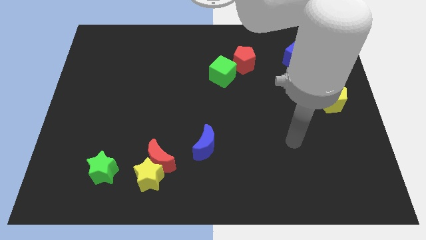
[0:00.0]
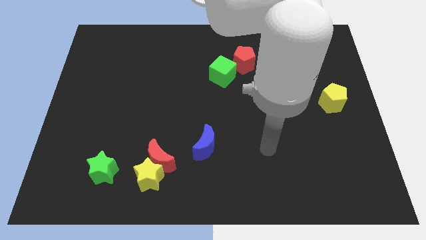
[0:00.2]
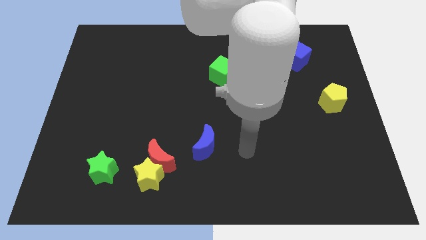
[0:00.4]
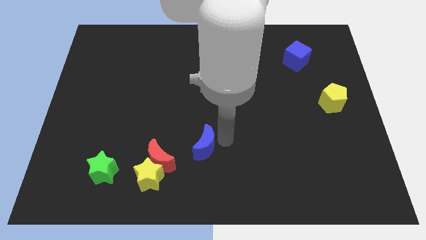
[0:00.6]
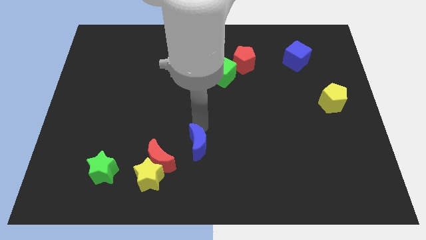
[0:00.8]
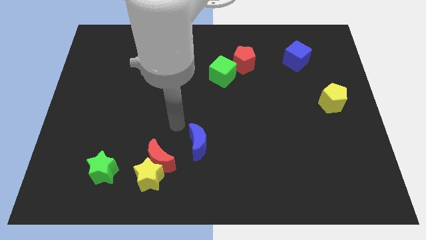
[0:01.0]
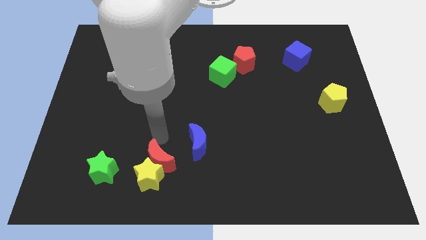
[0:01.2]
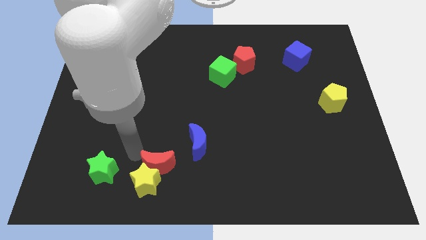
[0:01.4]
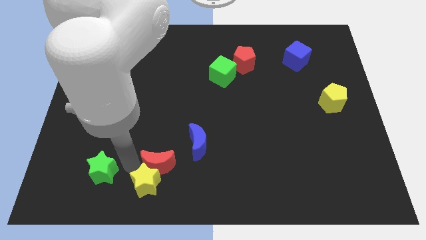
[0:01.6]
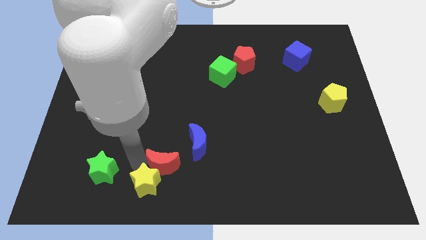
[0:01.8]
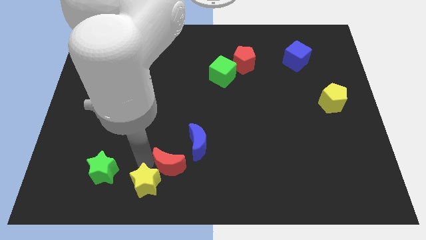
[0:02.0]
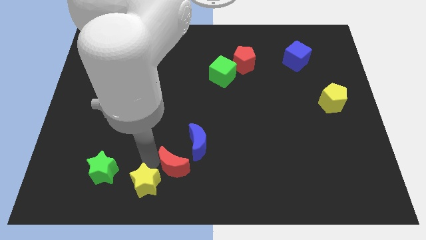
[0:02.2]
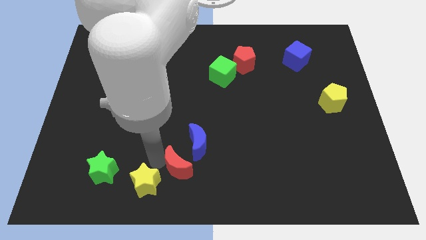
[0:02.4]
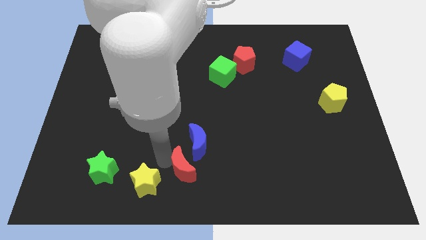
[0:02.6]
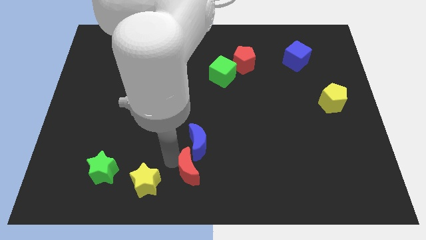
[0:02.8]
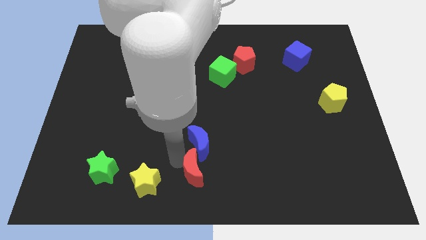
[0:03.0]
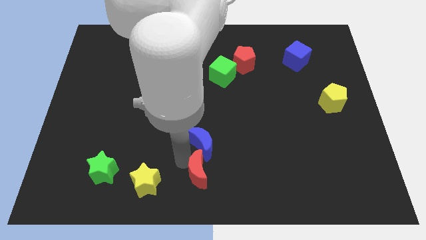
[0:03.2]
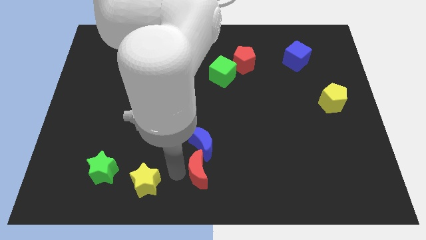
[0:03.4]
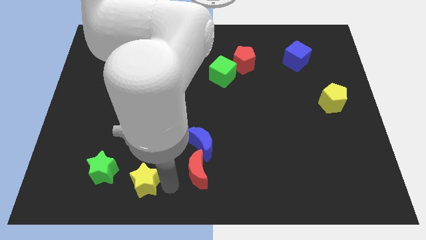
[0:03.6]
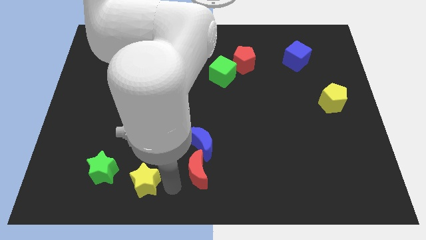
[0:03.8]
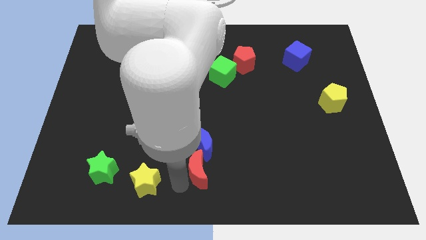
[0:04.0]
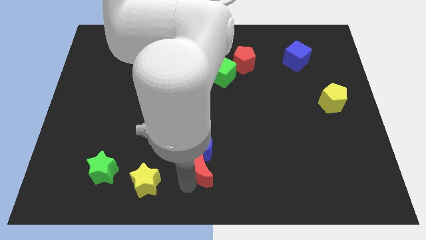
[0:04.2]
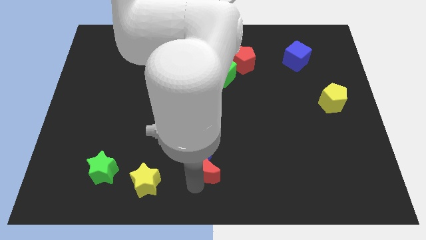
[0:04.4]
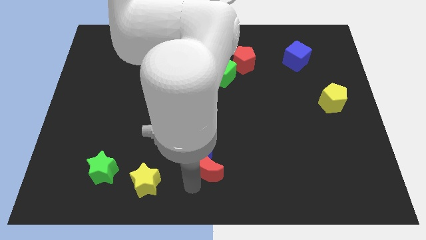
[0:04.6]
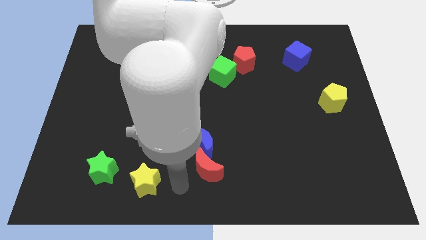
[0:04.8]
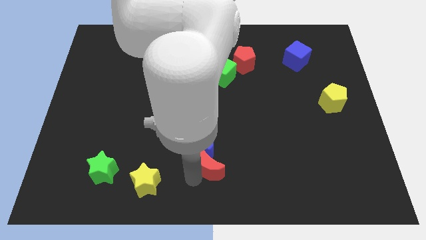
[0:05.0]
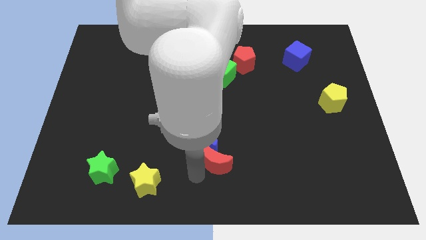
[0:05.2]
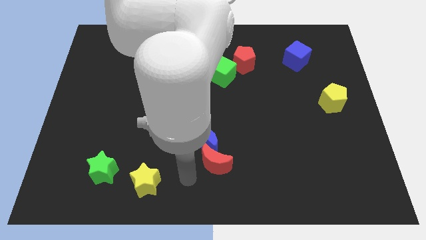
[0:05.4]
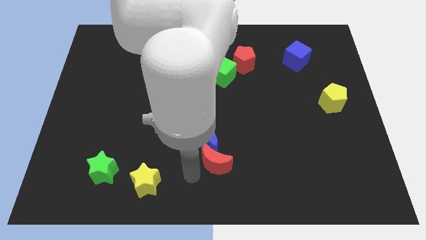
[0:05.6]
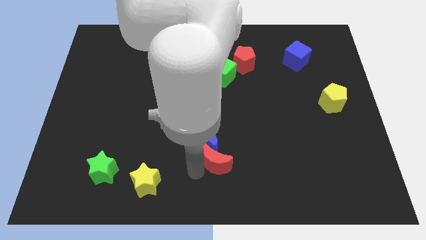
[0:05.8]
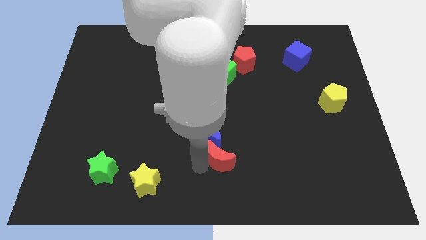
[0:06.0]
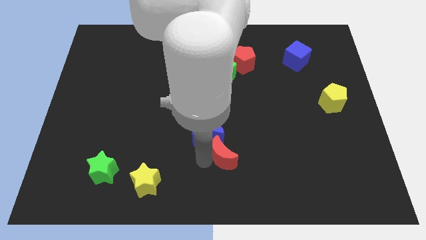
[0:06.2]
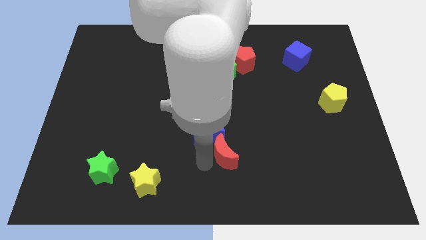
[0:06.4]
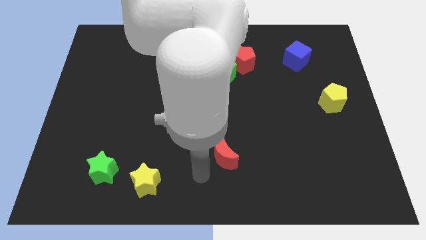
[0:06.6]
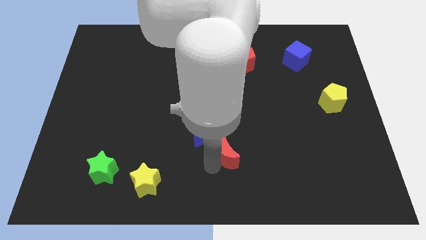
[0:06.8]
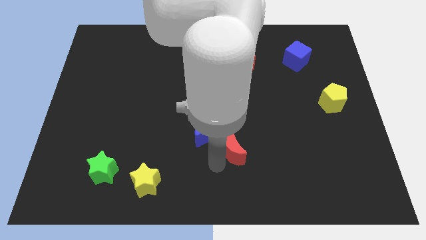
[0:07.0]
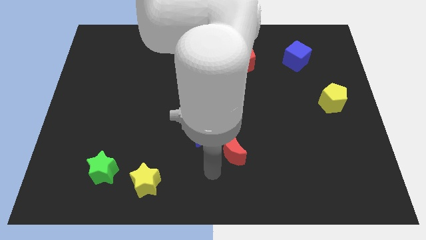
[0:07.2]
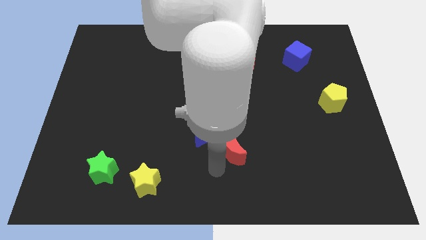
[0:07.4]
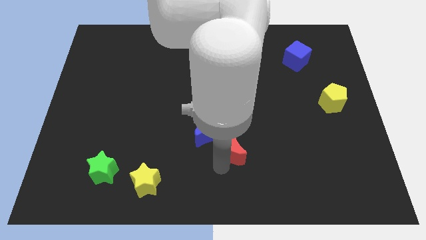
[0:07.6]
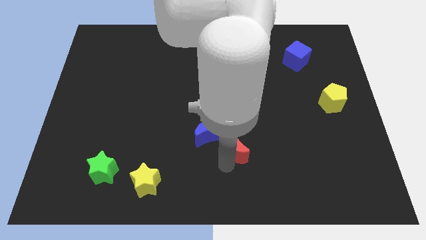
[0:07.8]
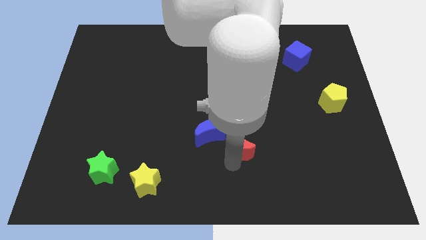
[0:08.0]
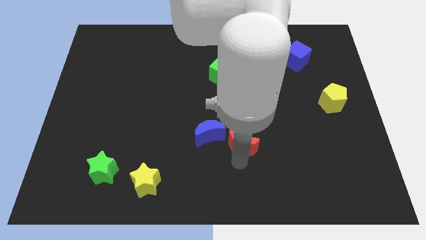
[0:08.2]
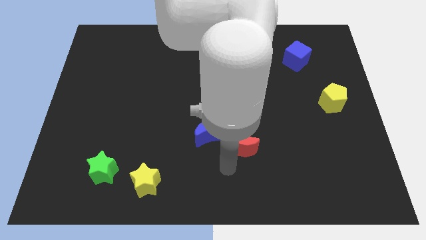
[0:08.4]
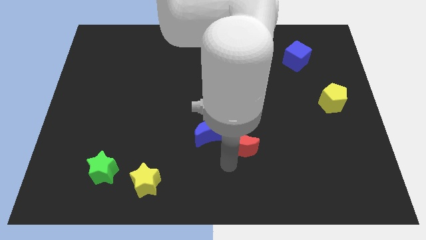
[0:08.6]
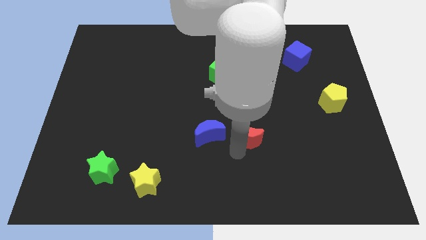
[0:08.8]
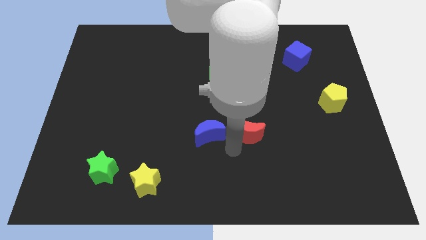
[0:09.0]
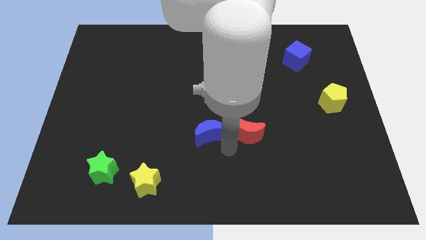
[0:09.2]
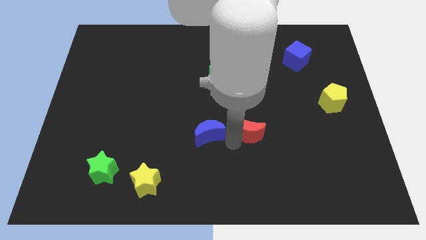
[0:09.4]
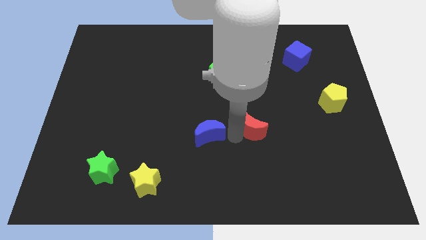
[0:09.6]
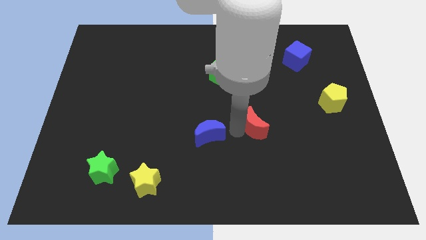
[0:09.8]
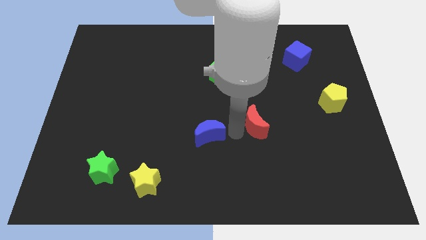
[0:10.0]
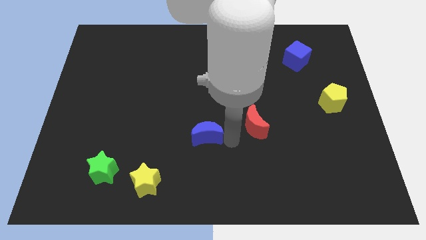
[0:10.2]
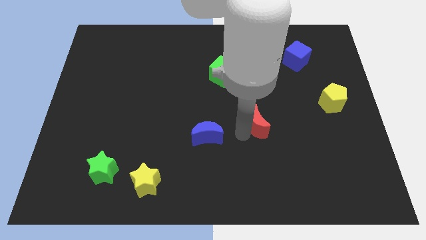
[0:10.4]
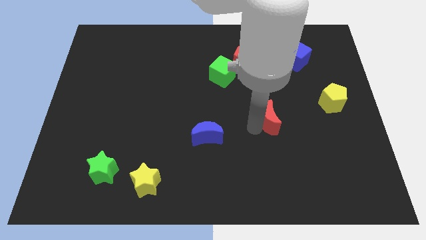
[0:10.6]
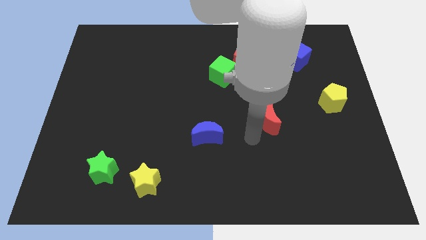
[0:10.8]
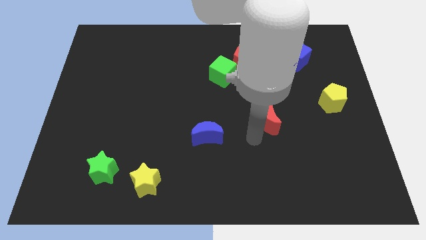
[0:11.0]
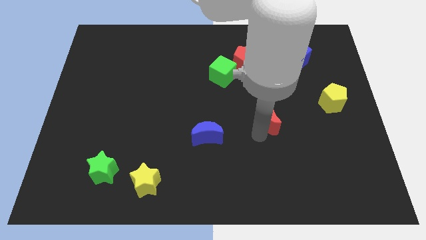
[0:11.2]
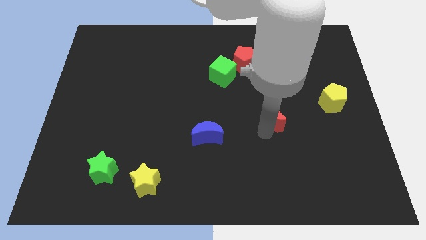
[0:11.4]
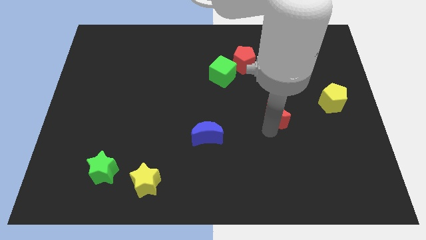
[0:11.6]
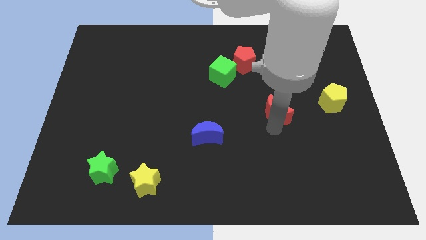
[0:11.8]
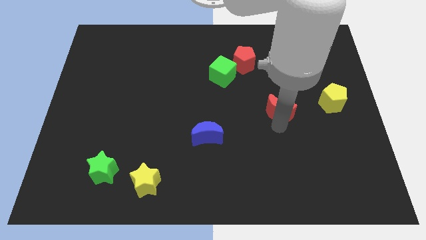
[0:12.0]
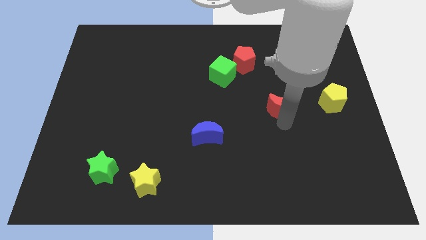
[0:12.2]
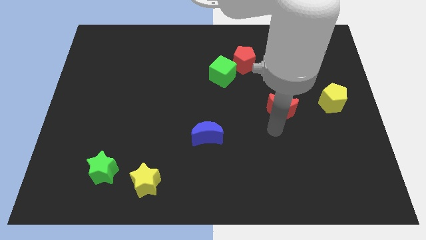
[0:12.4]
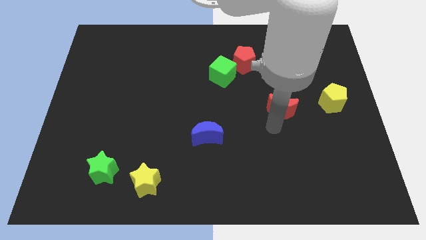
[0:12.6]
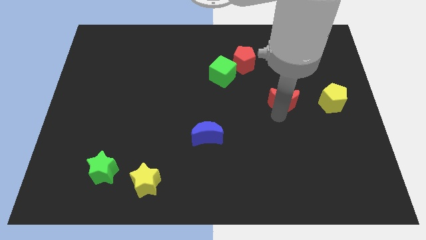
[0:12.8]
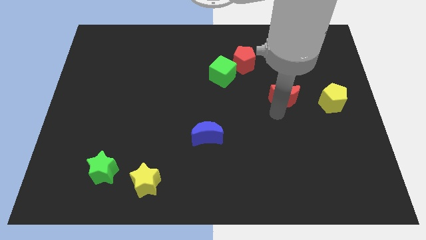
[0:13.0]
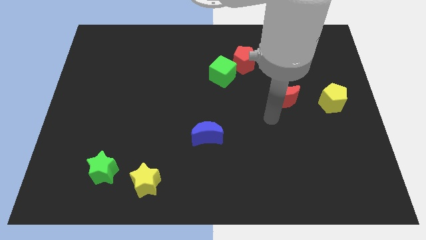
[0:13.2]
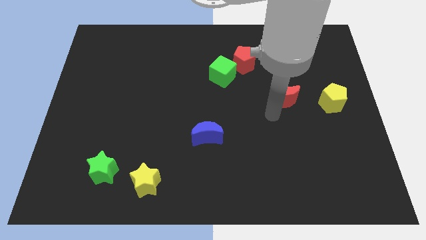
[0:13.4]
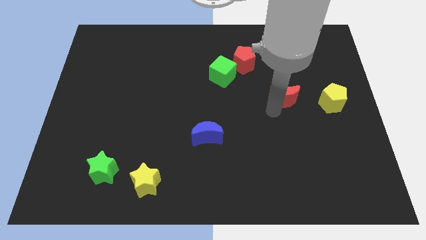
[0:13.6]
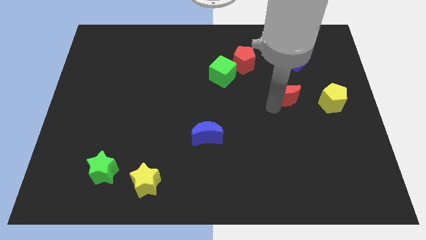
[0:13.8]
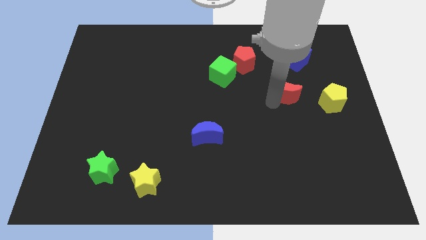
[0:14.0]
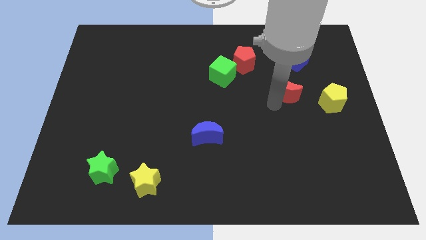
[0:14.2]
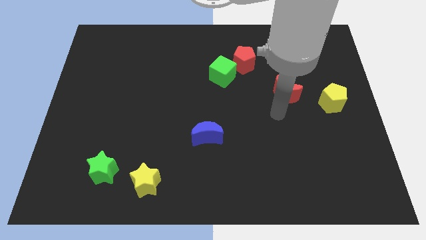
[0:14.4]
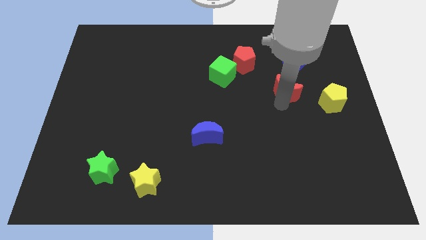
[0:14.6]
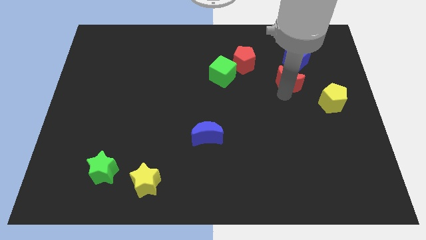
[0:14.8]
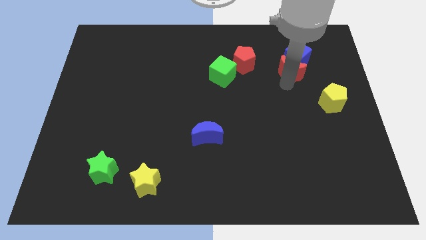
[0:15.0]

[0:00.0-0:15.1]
push the red moon next to the blue cube

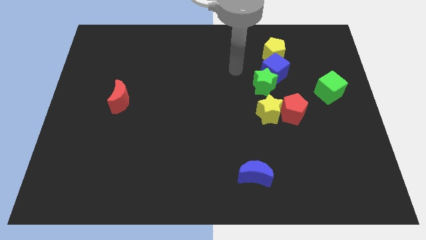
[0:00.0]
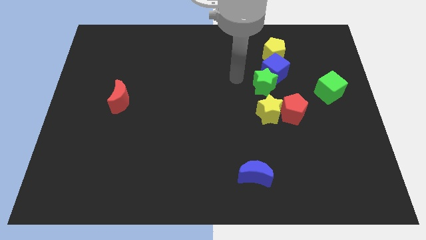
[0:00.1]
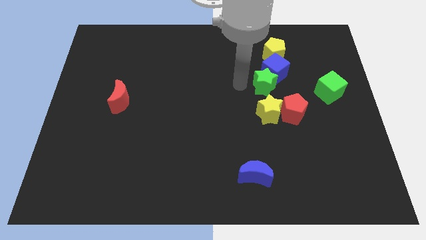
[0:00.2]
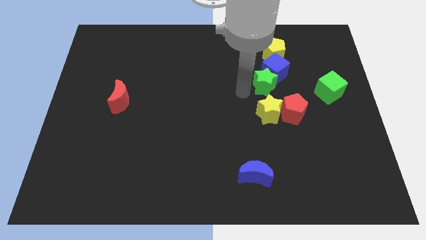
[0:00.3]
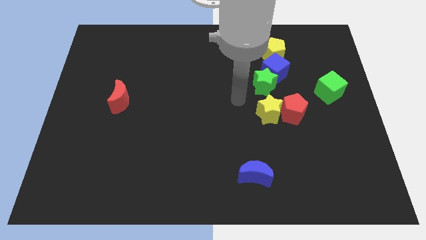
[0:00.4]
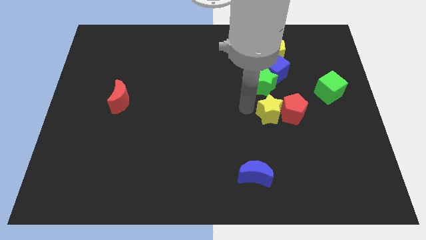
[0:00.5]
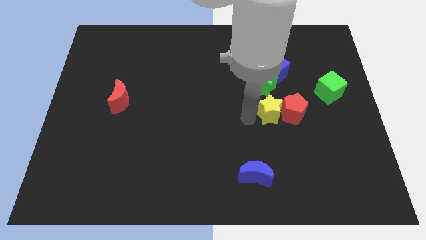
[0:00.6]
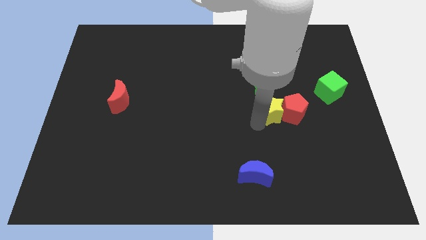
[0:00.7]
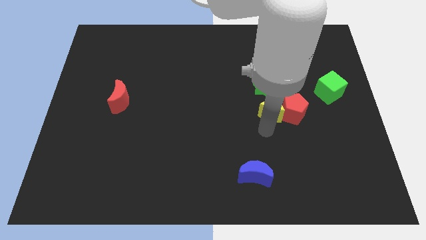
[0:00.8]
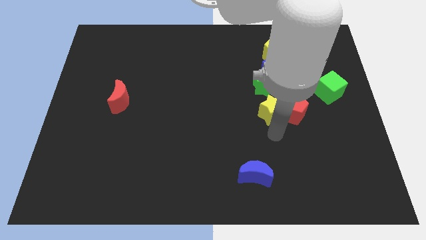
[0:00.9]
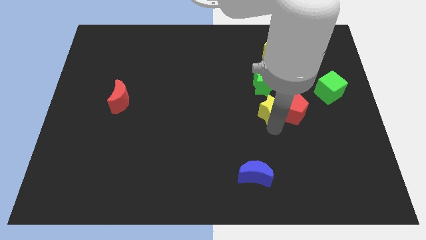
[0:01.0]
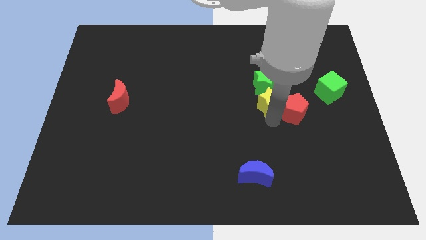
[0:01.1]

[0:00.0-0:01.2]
push the yellow star to the green star
